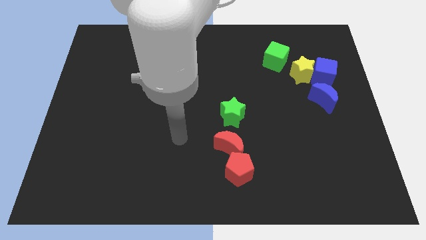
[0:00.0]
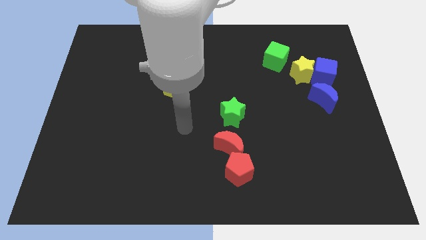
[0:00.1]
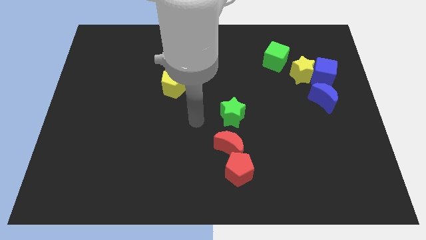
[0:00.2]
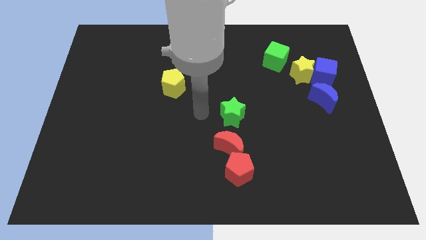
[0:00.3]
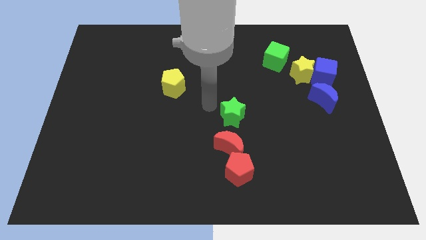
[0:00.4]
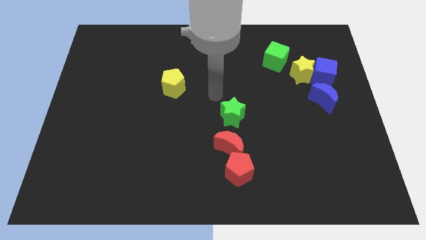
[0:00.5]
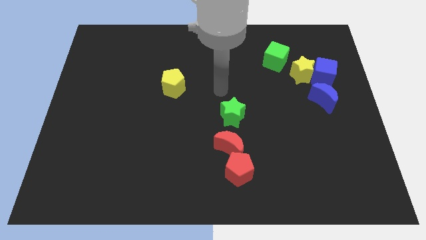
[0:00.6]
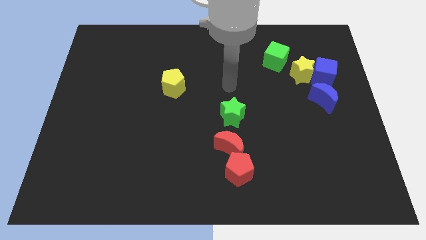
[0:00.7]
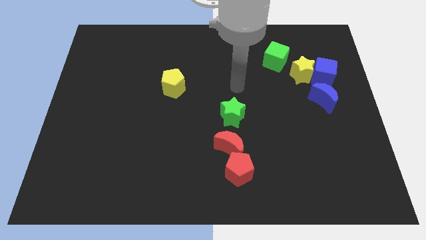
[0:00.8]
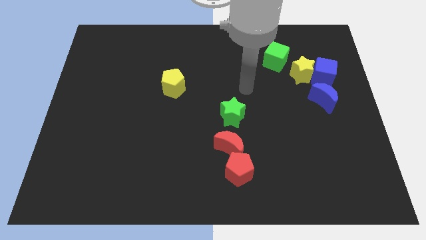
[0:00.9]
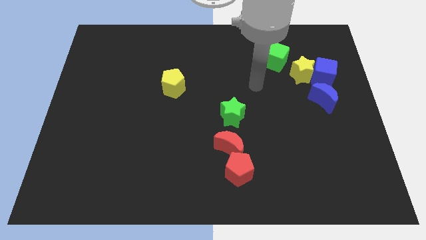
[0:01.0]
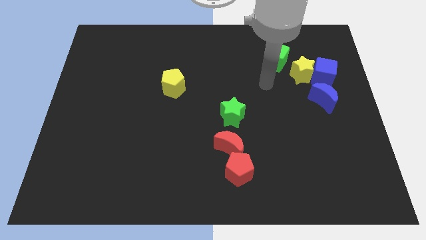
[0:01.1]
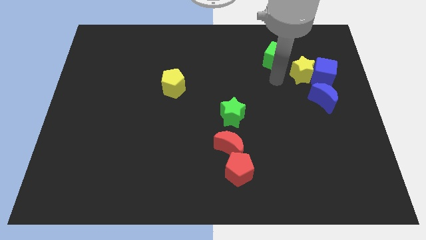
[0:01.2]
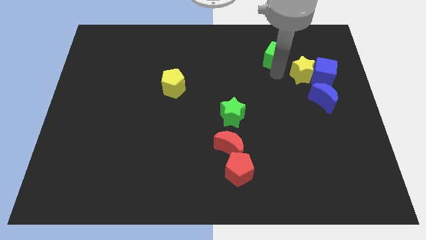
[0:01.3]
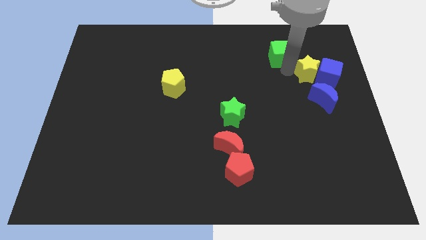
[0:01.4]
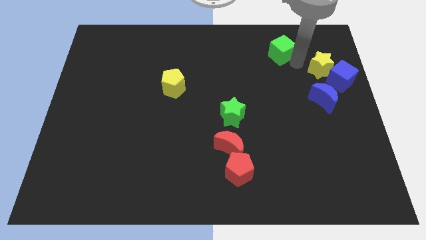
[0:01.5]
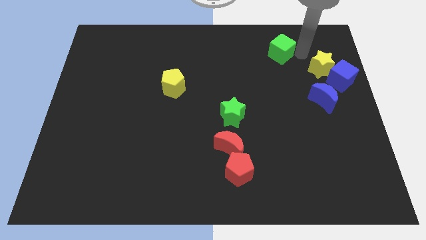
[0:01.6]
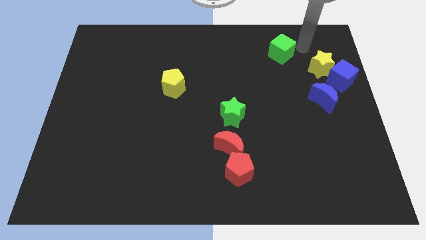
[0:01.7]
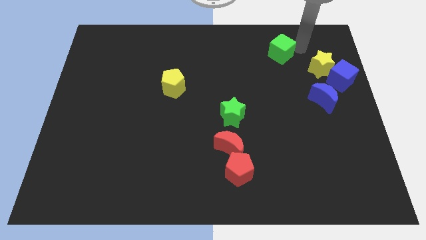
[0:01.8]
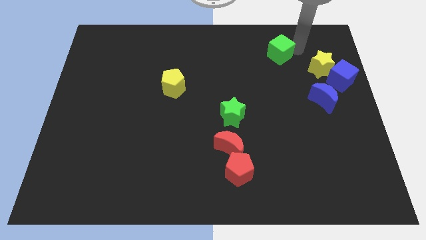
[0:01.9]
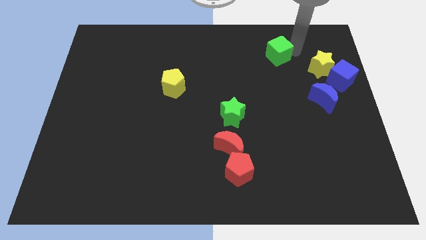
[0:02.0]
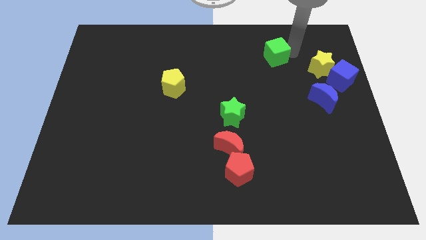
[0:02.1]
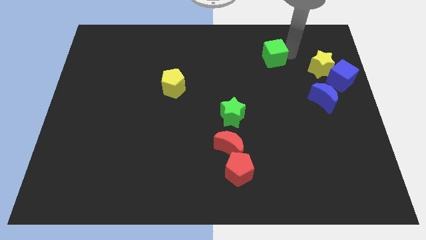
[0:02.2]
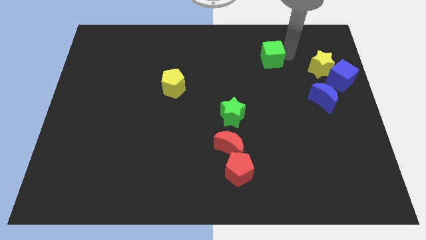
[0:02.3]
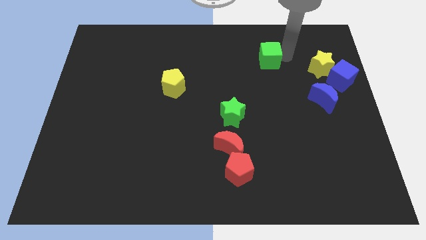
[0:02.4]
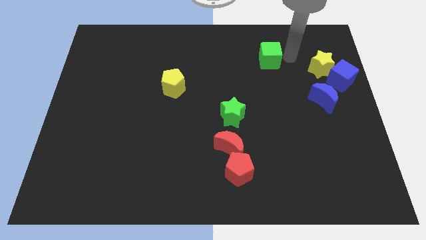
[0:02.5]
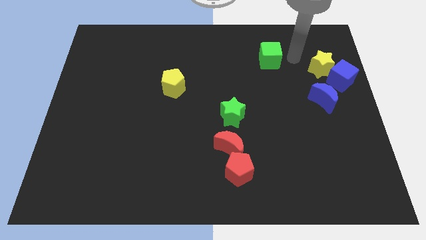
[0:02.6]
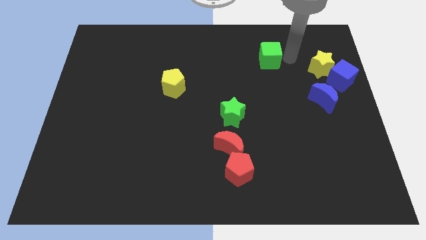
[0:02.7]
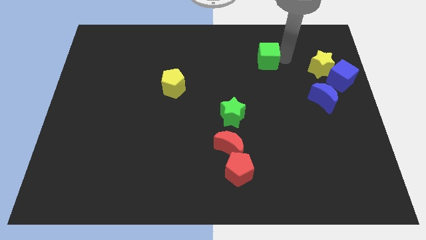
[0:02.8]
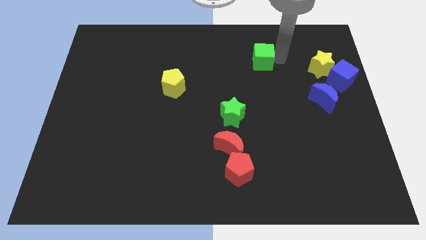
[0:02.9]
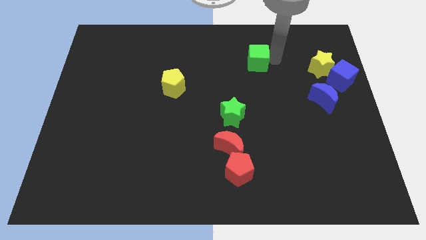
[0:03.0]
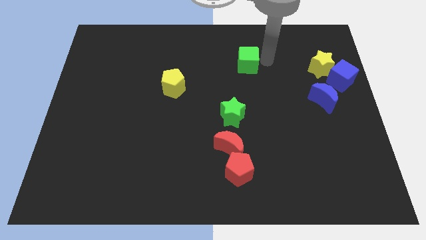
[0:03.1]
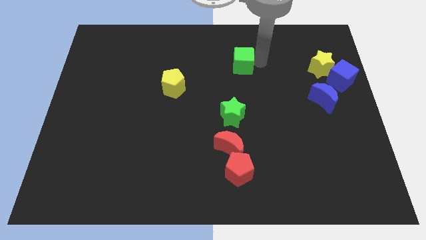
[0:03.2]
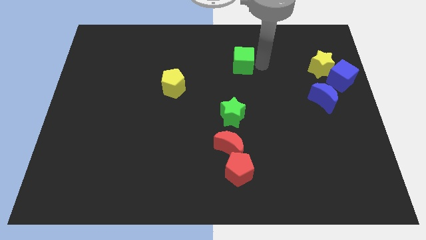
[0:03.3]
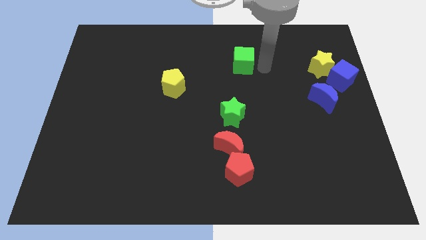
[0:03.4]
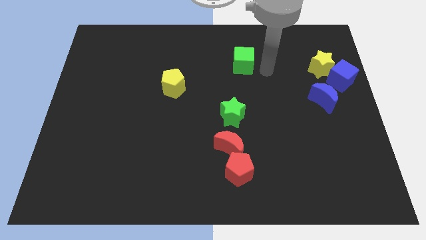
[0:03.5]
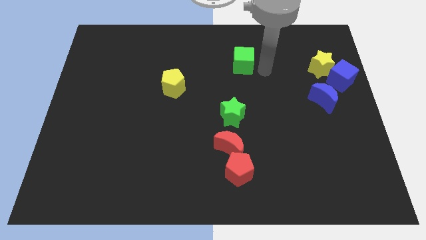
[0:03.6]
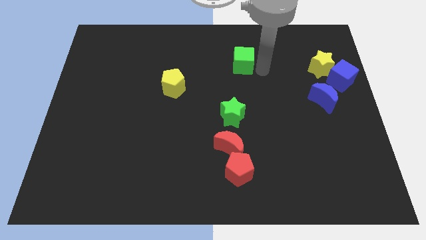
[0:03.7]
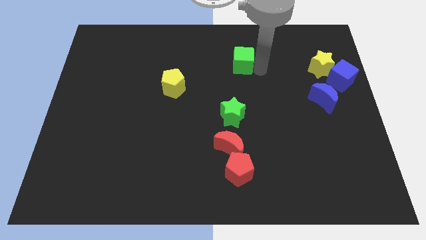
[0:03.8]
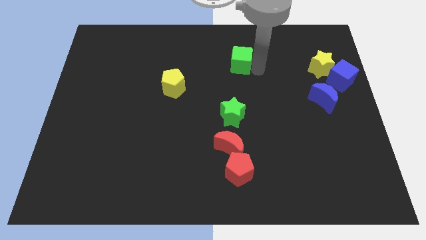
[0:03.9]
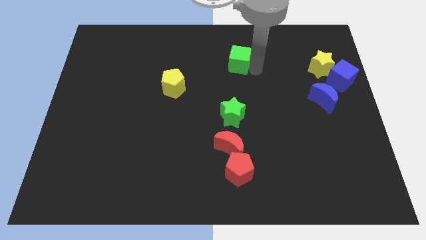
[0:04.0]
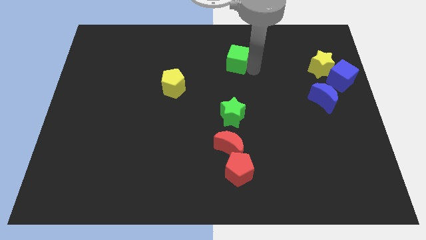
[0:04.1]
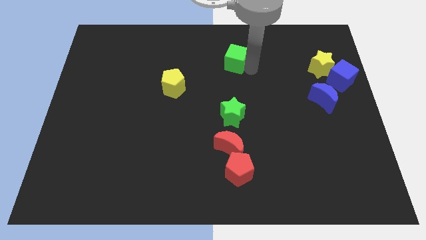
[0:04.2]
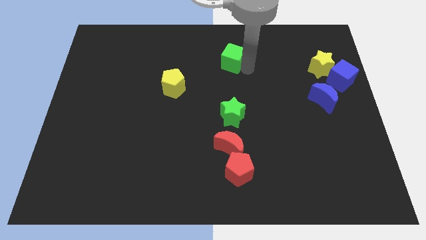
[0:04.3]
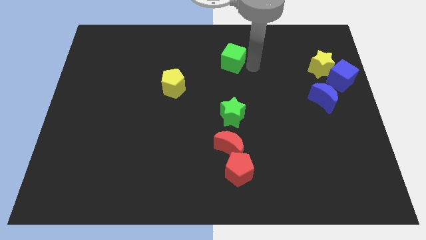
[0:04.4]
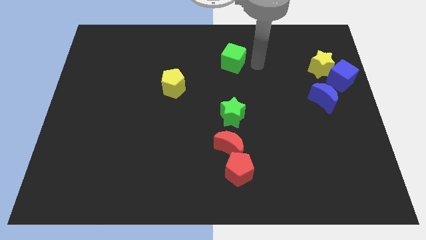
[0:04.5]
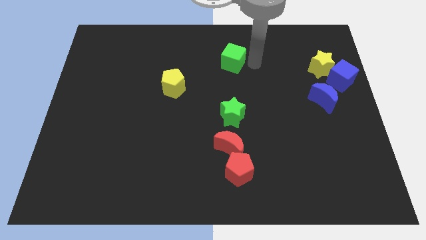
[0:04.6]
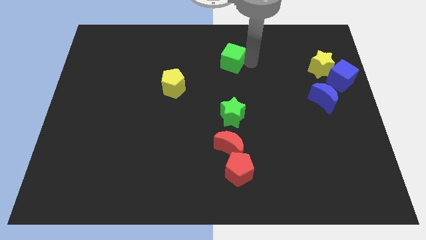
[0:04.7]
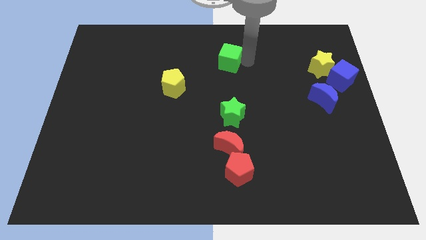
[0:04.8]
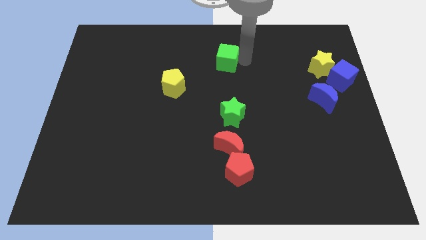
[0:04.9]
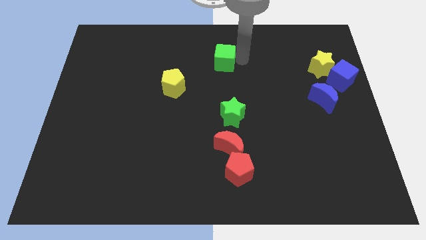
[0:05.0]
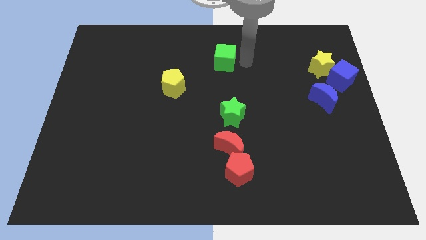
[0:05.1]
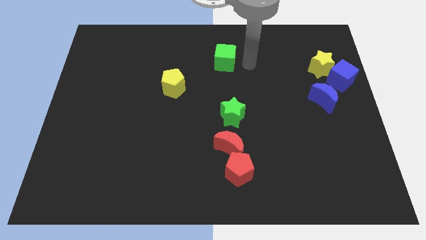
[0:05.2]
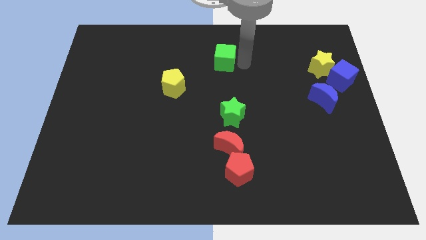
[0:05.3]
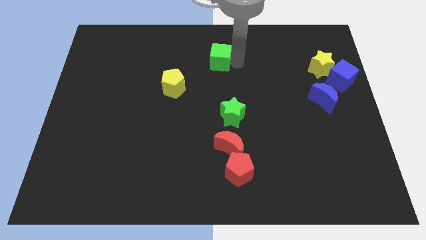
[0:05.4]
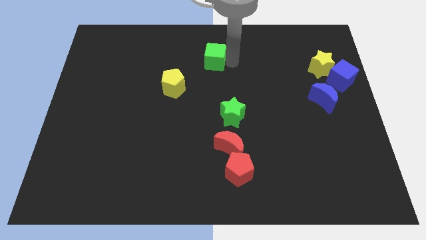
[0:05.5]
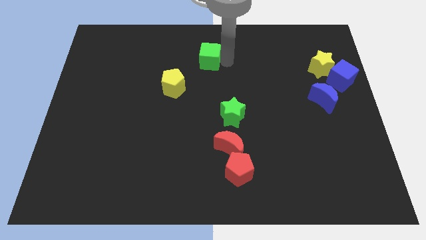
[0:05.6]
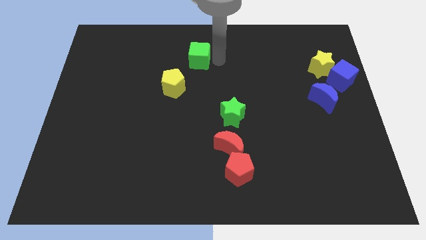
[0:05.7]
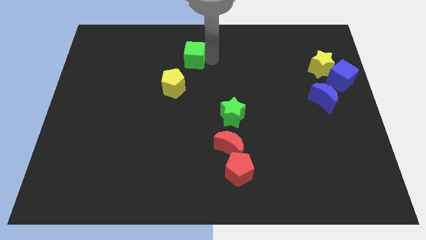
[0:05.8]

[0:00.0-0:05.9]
push the green cube to the top side of the yellow pentagon

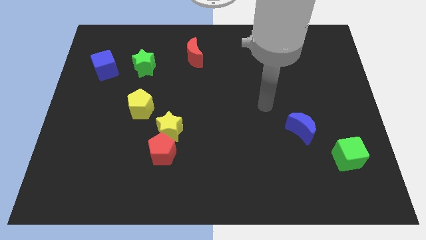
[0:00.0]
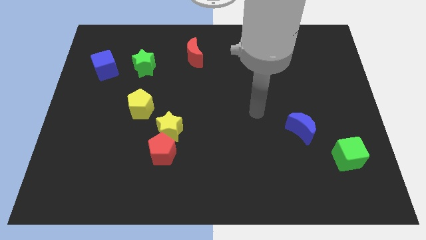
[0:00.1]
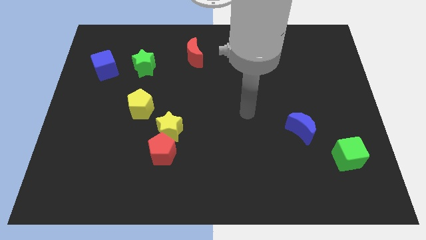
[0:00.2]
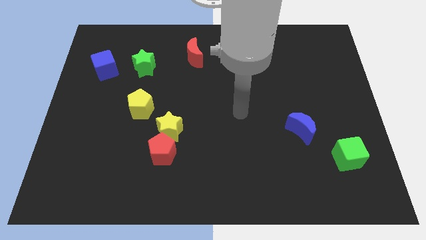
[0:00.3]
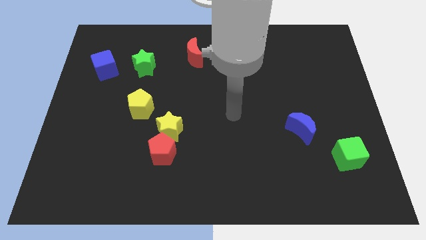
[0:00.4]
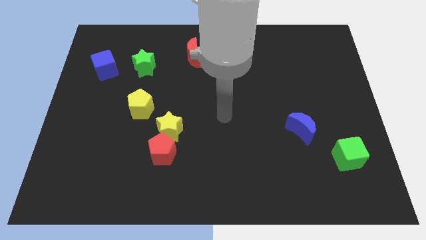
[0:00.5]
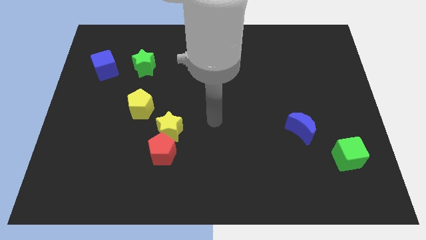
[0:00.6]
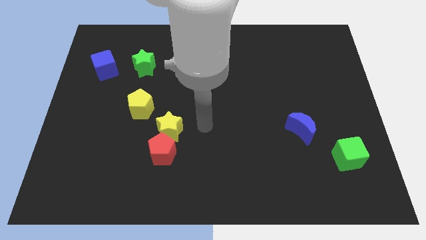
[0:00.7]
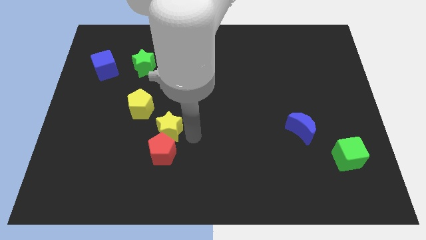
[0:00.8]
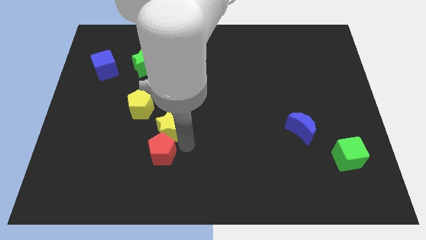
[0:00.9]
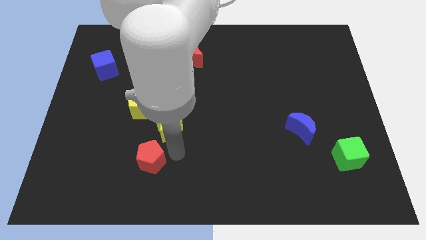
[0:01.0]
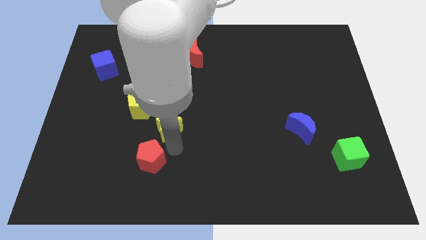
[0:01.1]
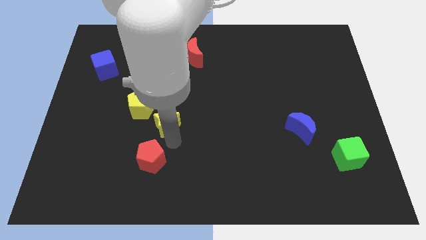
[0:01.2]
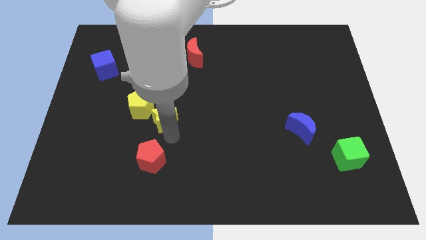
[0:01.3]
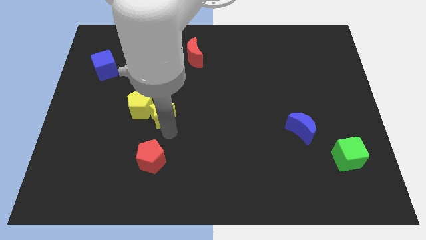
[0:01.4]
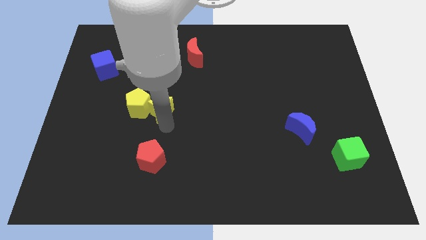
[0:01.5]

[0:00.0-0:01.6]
put the yellow star to the top right of the yellow pentagon

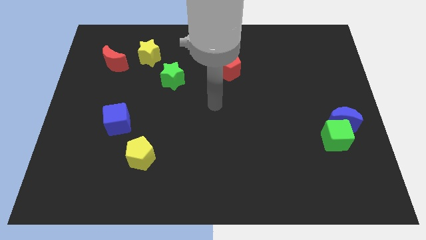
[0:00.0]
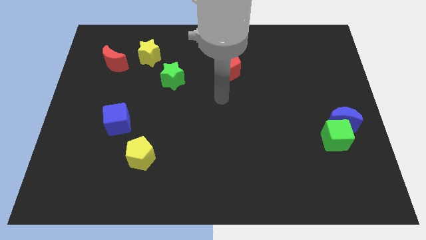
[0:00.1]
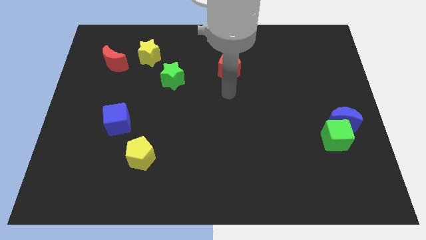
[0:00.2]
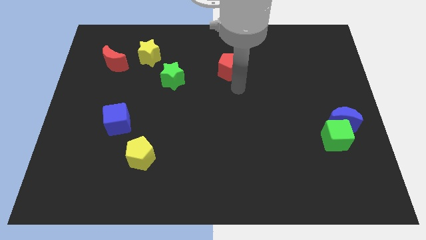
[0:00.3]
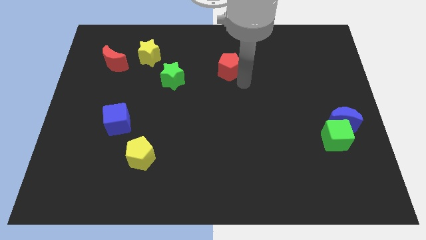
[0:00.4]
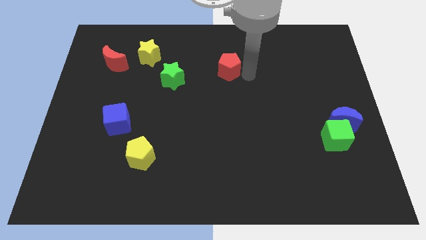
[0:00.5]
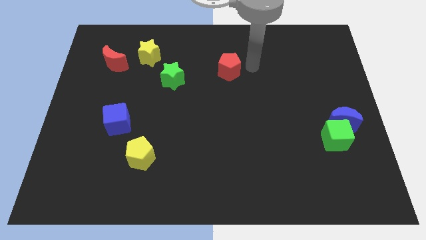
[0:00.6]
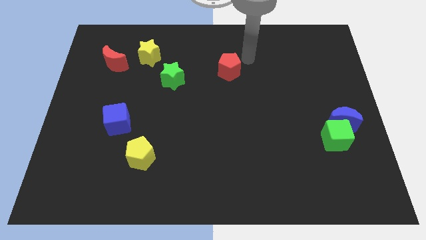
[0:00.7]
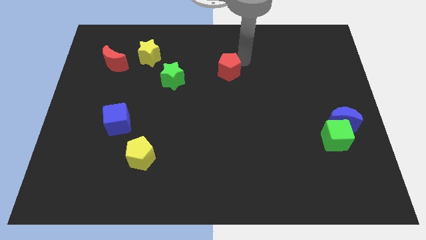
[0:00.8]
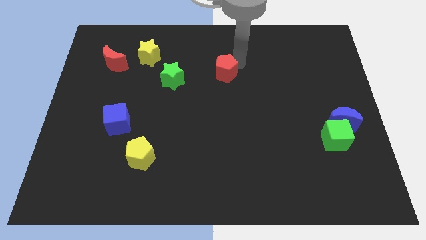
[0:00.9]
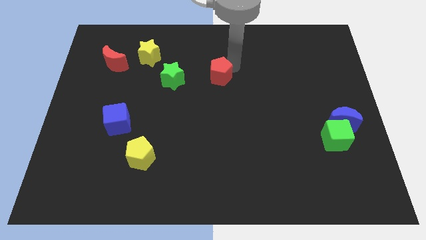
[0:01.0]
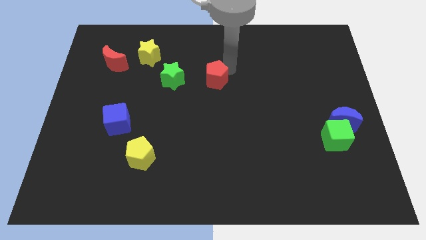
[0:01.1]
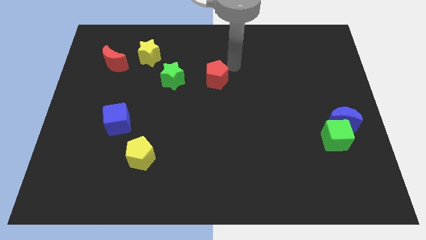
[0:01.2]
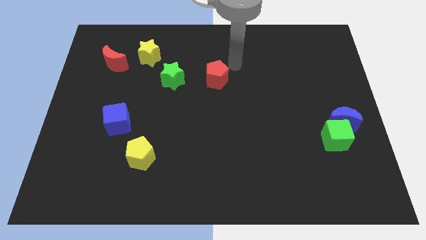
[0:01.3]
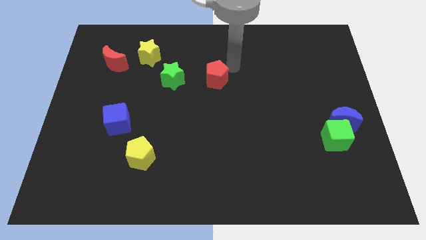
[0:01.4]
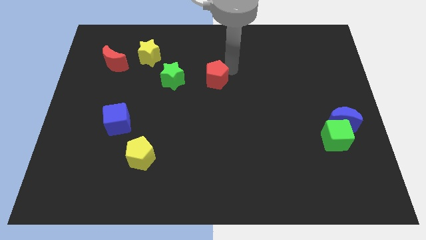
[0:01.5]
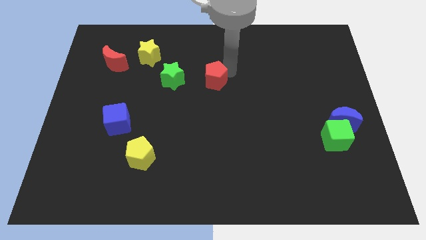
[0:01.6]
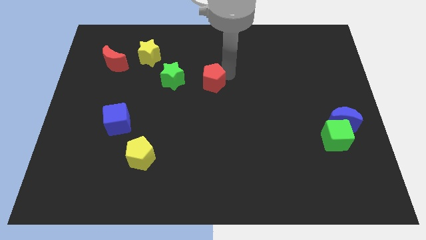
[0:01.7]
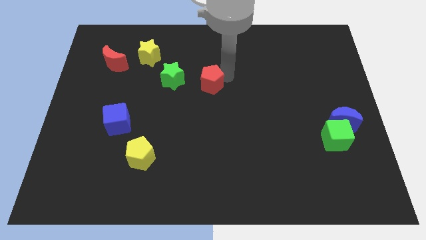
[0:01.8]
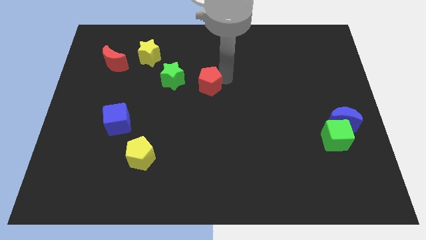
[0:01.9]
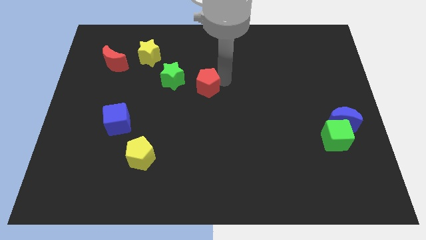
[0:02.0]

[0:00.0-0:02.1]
slide the red pentagon to the bottom right of the green star
